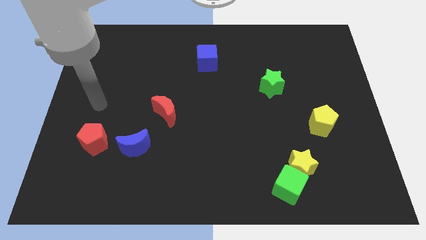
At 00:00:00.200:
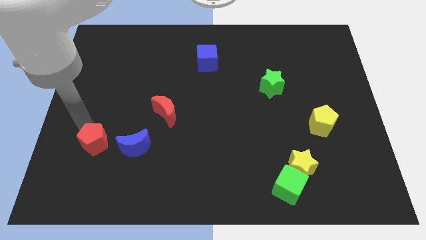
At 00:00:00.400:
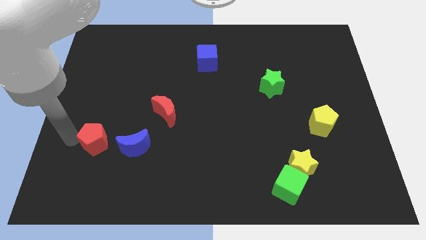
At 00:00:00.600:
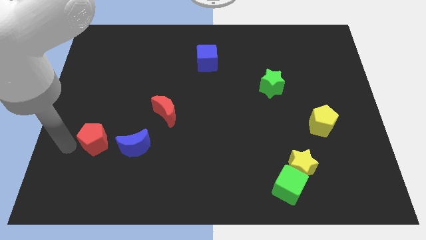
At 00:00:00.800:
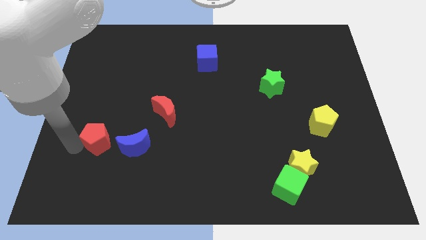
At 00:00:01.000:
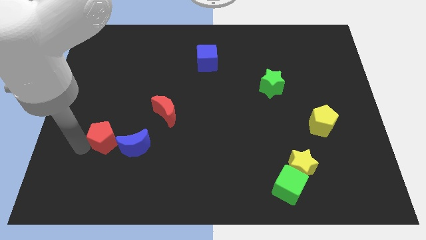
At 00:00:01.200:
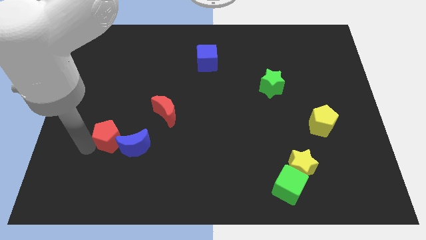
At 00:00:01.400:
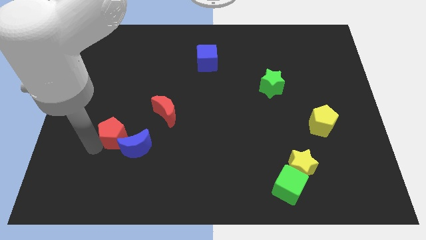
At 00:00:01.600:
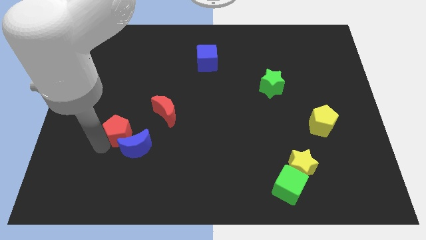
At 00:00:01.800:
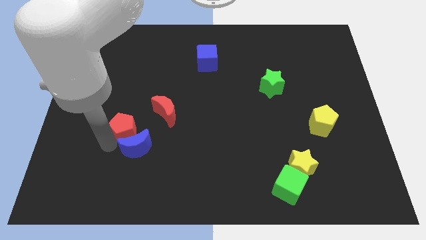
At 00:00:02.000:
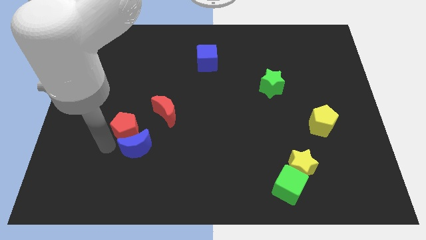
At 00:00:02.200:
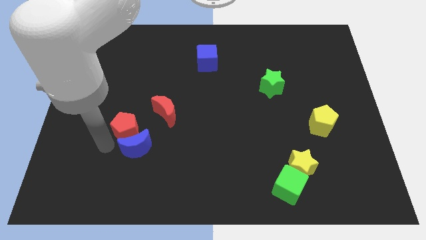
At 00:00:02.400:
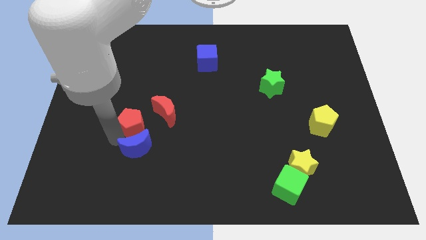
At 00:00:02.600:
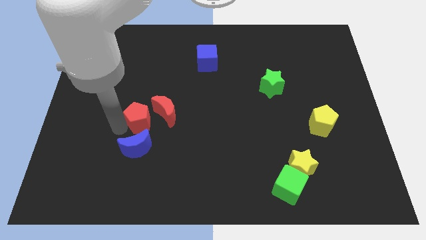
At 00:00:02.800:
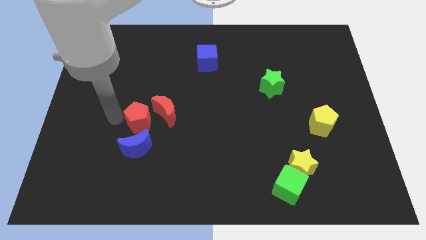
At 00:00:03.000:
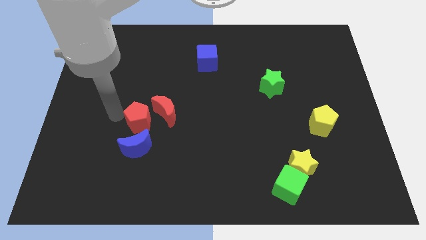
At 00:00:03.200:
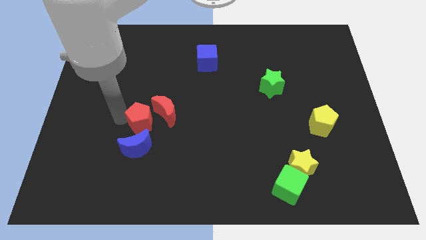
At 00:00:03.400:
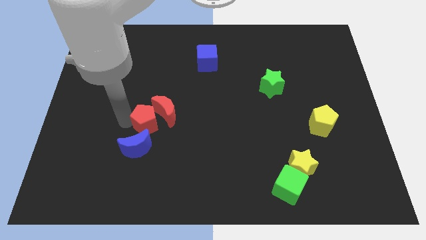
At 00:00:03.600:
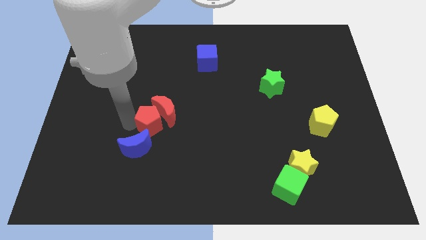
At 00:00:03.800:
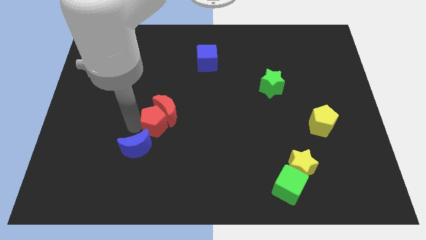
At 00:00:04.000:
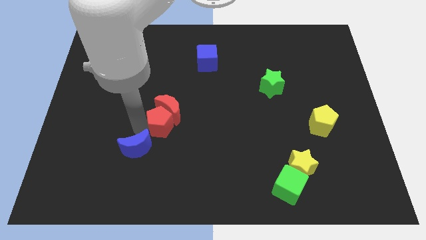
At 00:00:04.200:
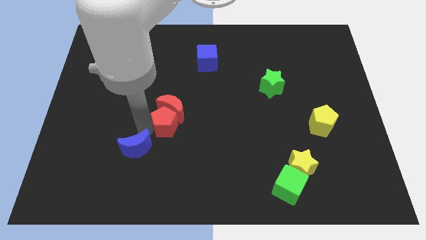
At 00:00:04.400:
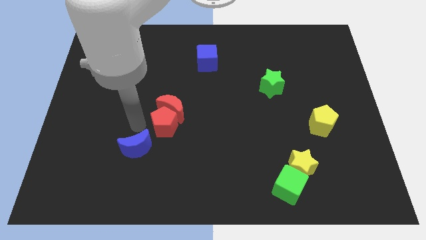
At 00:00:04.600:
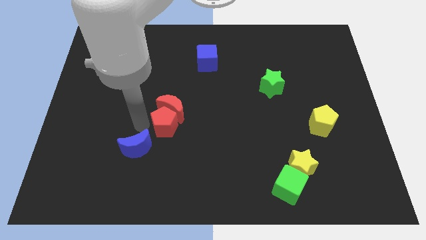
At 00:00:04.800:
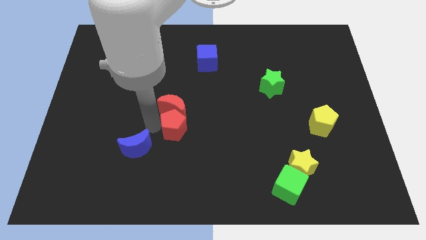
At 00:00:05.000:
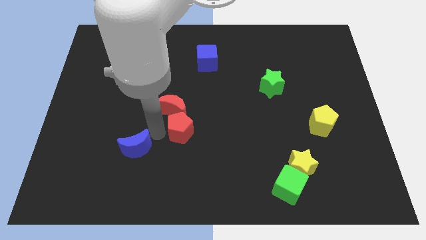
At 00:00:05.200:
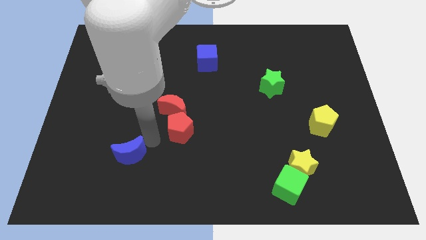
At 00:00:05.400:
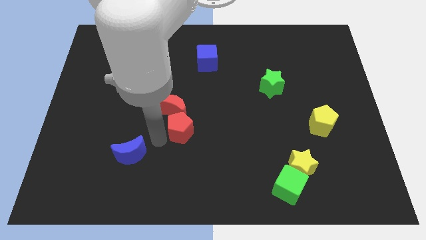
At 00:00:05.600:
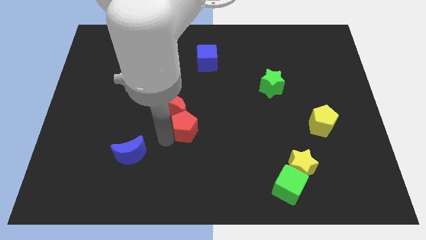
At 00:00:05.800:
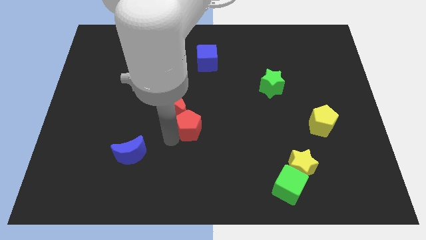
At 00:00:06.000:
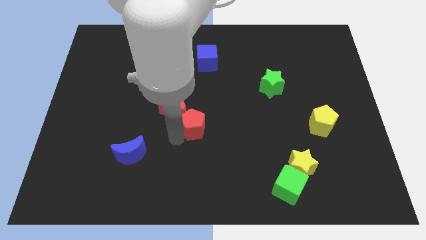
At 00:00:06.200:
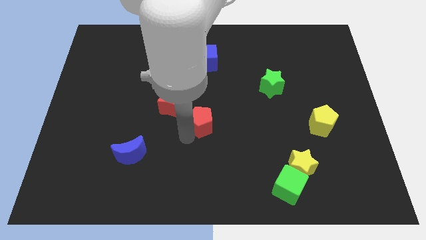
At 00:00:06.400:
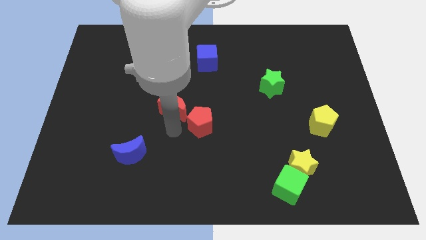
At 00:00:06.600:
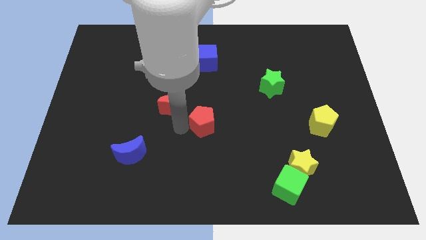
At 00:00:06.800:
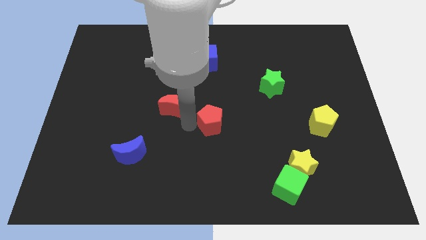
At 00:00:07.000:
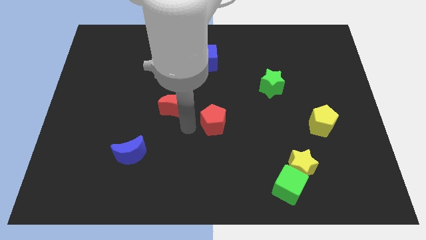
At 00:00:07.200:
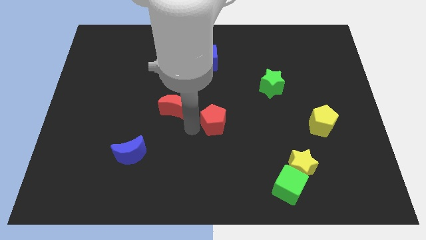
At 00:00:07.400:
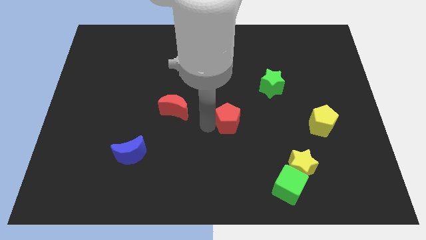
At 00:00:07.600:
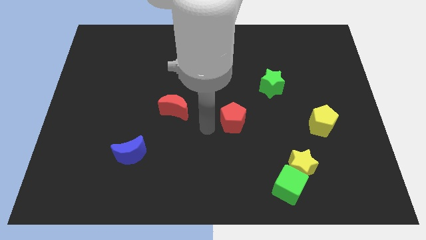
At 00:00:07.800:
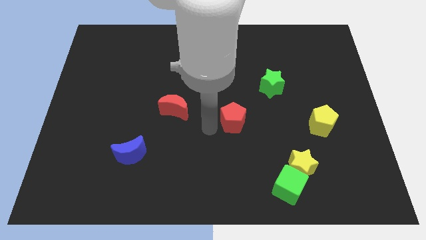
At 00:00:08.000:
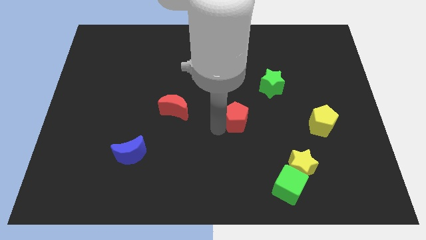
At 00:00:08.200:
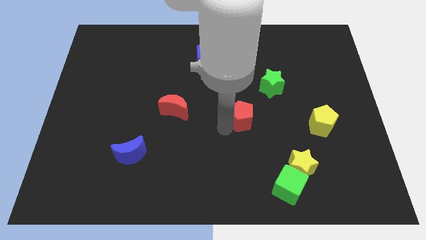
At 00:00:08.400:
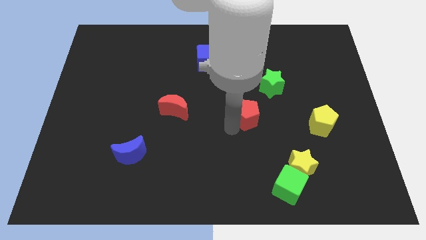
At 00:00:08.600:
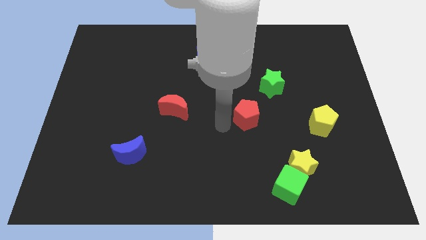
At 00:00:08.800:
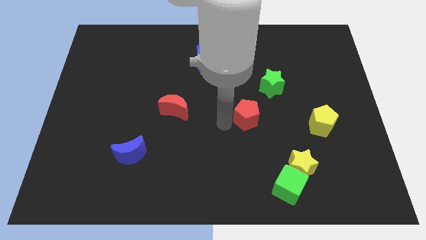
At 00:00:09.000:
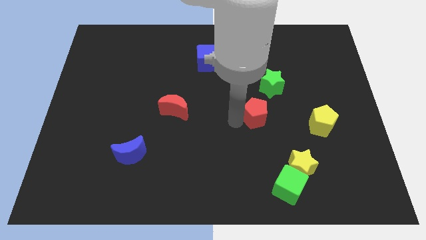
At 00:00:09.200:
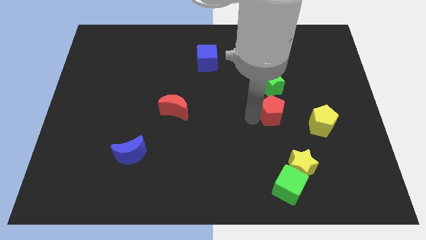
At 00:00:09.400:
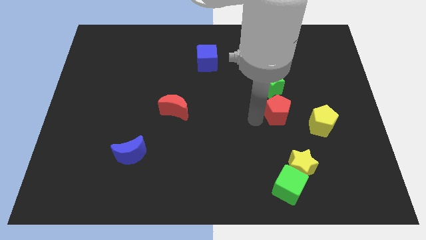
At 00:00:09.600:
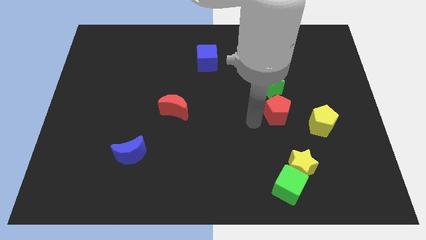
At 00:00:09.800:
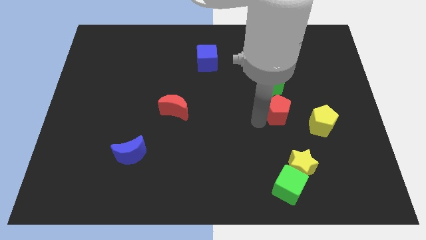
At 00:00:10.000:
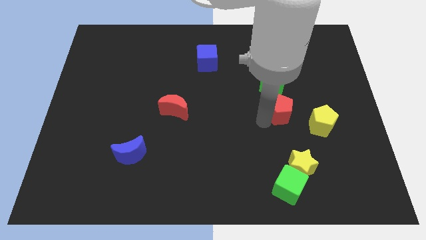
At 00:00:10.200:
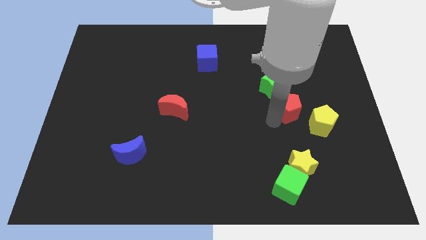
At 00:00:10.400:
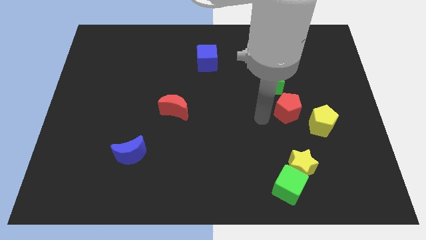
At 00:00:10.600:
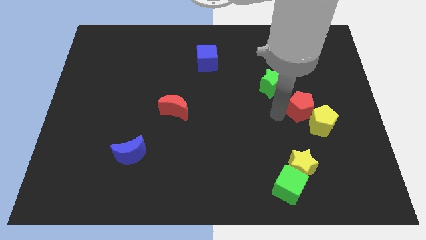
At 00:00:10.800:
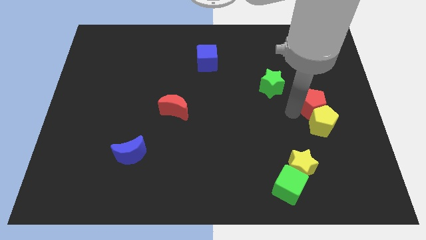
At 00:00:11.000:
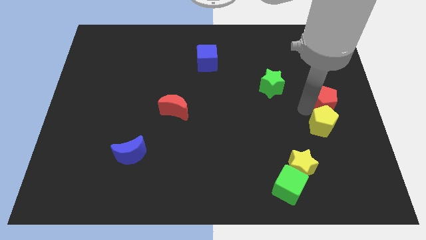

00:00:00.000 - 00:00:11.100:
move the red pentagon to the center right

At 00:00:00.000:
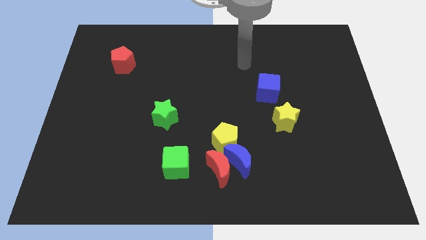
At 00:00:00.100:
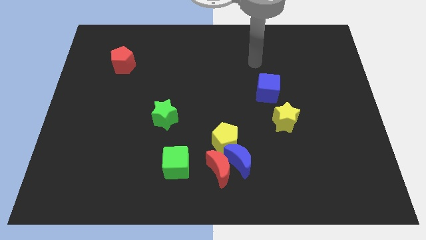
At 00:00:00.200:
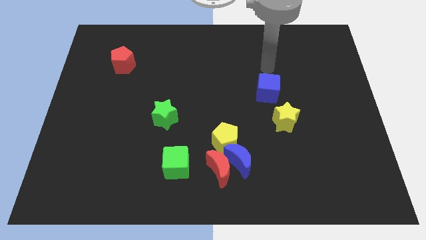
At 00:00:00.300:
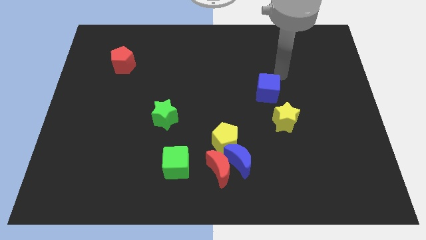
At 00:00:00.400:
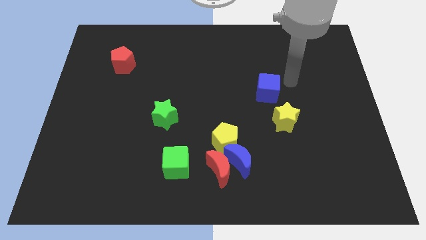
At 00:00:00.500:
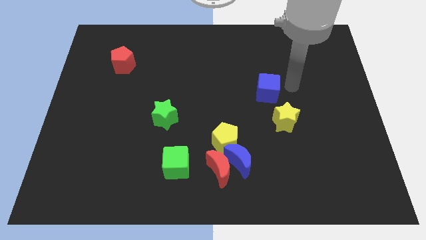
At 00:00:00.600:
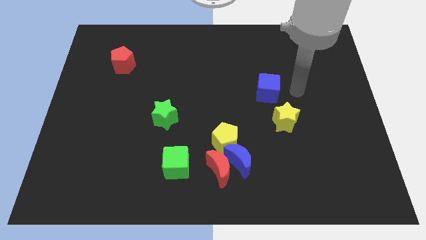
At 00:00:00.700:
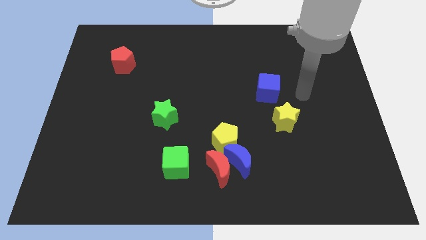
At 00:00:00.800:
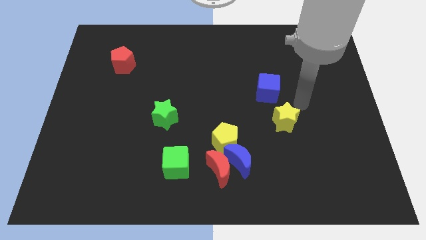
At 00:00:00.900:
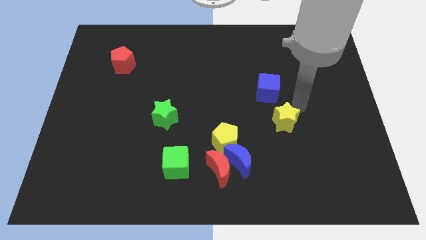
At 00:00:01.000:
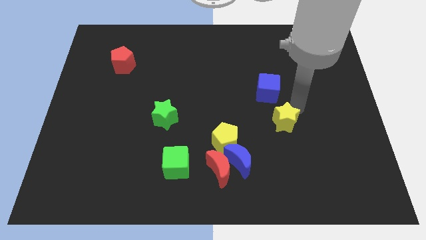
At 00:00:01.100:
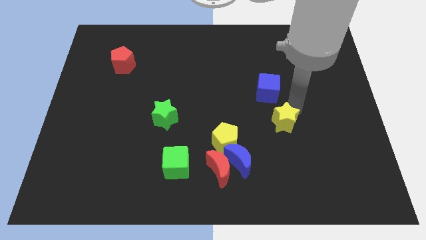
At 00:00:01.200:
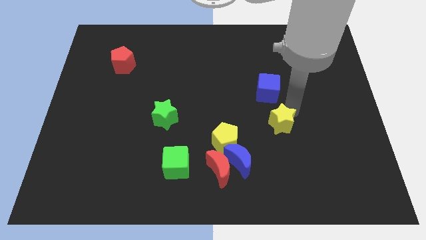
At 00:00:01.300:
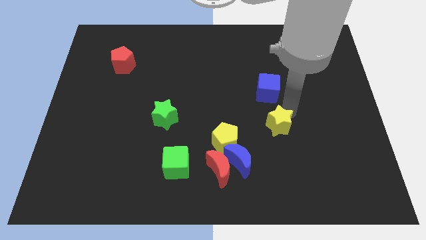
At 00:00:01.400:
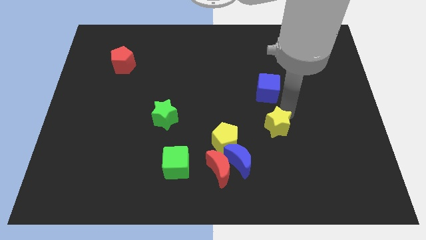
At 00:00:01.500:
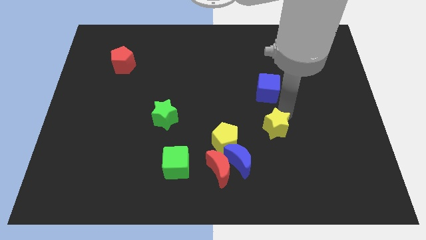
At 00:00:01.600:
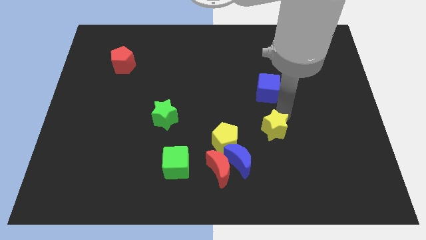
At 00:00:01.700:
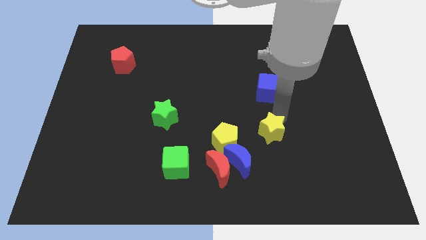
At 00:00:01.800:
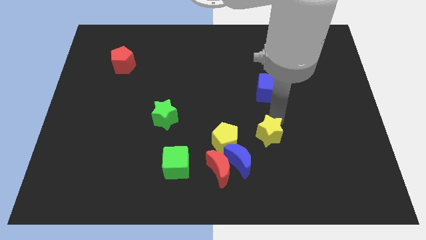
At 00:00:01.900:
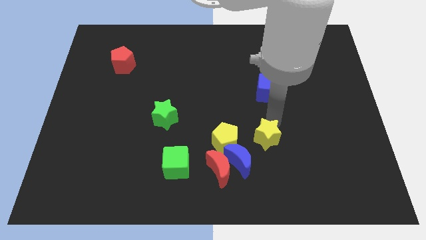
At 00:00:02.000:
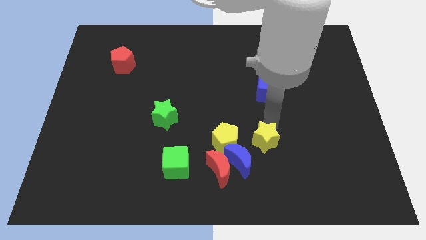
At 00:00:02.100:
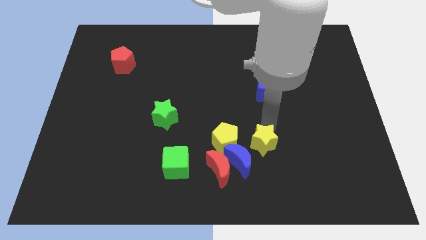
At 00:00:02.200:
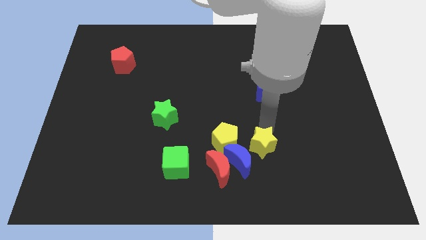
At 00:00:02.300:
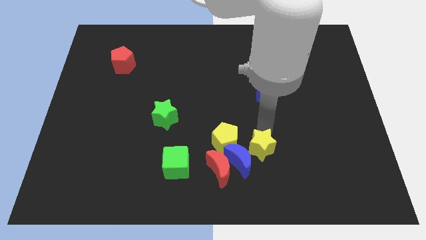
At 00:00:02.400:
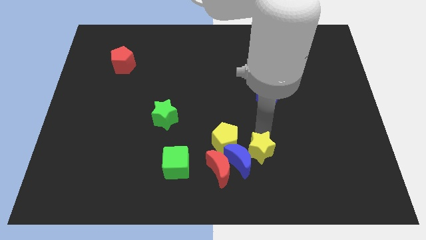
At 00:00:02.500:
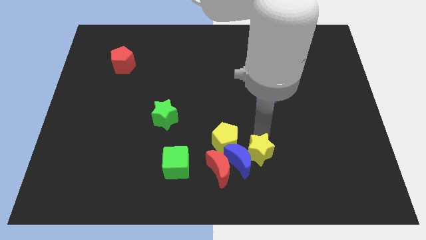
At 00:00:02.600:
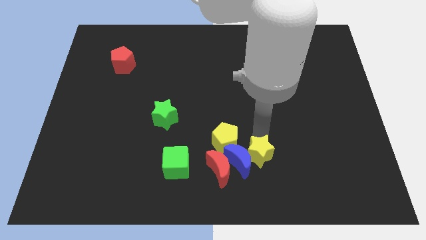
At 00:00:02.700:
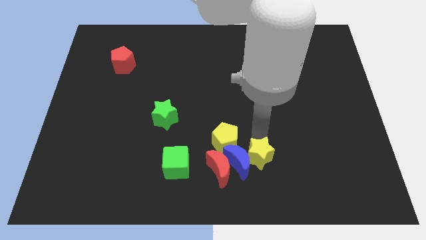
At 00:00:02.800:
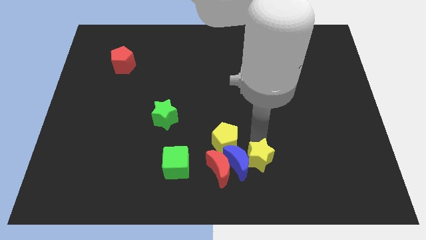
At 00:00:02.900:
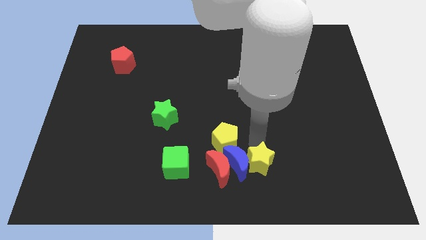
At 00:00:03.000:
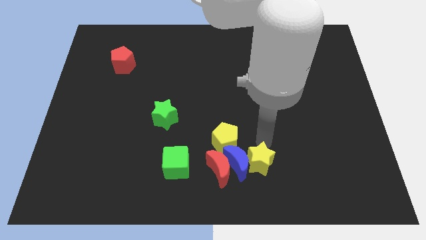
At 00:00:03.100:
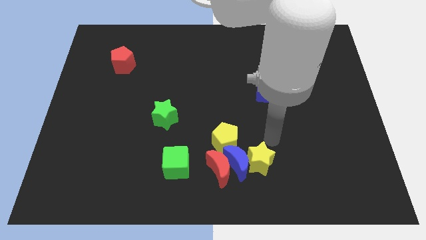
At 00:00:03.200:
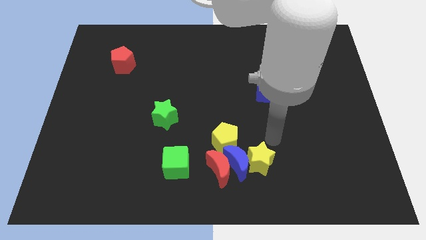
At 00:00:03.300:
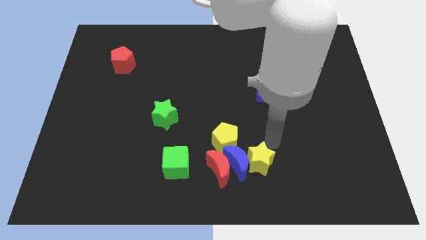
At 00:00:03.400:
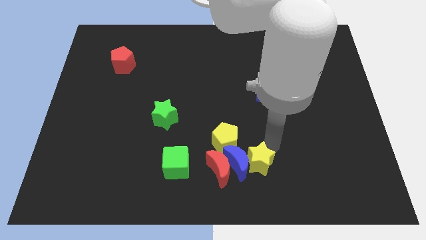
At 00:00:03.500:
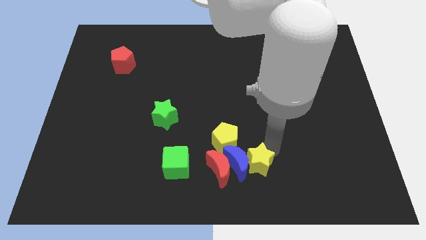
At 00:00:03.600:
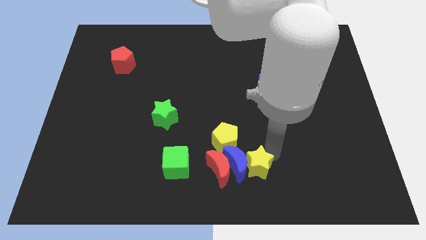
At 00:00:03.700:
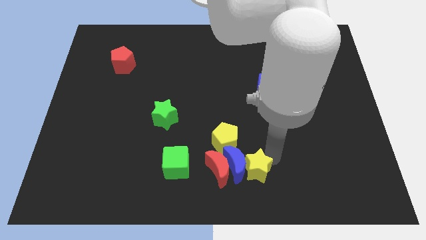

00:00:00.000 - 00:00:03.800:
put the yellow star to the bottom side
